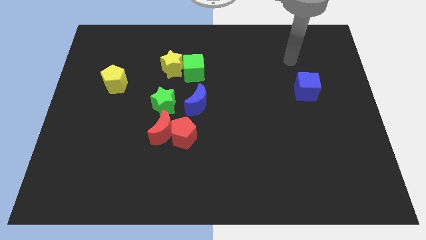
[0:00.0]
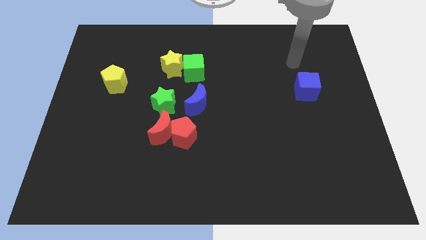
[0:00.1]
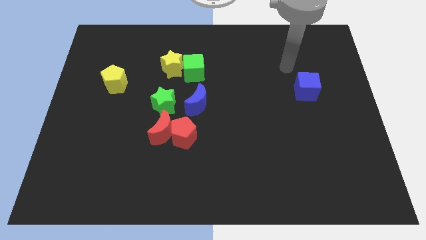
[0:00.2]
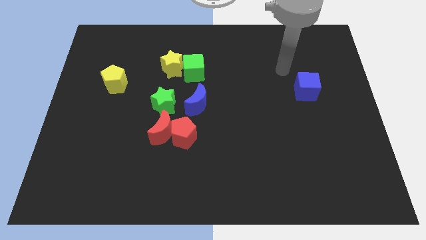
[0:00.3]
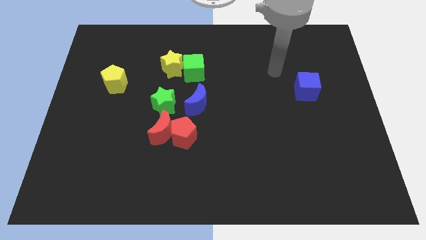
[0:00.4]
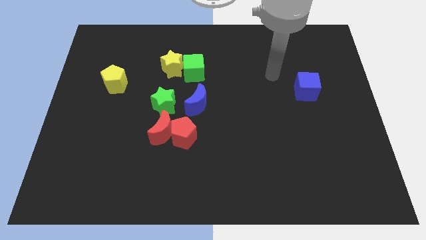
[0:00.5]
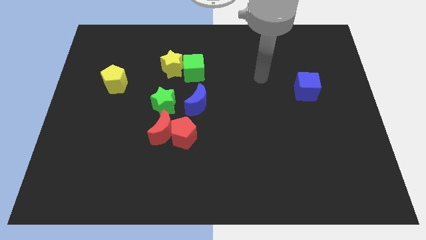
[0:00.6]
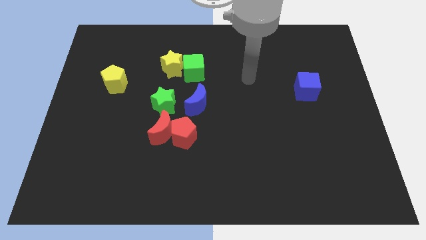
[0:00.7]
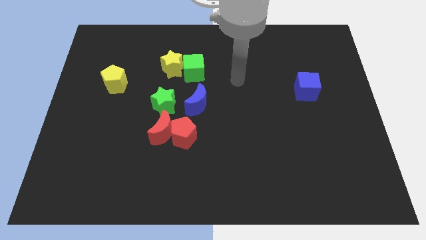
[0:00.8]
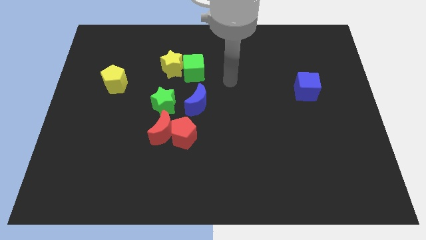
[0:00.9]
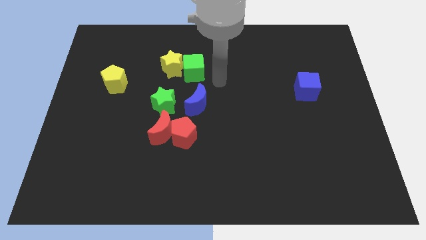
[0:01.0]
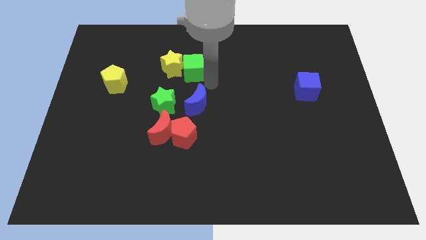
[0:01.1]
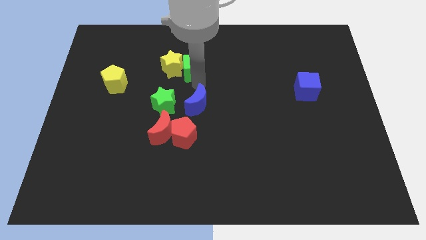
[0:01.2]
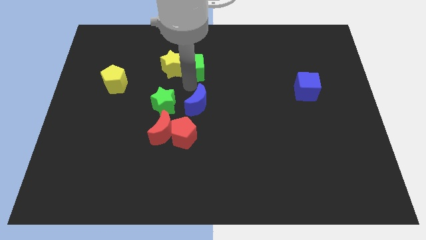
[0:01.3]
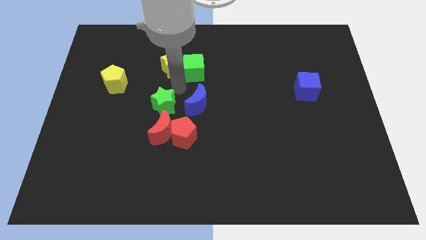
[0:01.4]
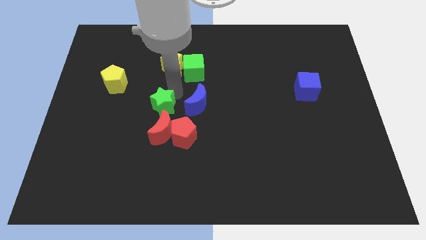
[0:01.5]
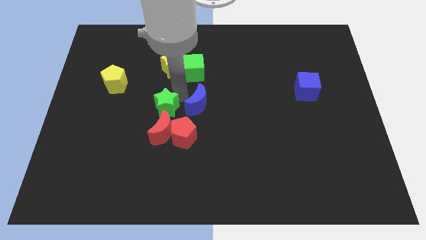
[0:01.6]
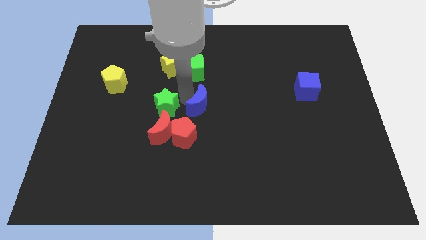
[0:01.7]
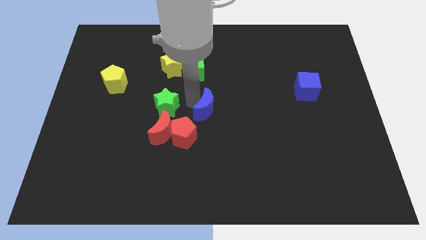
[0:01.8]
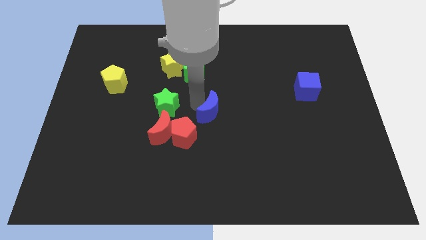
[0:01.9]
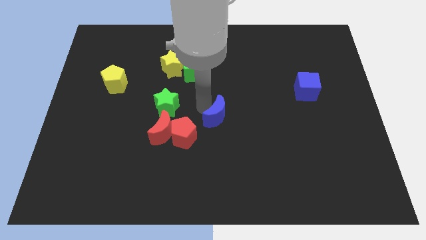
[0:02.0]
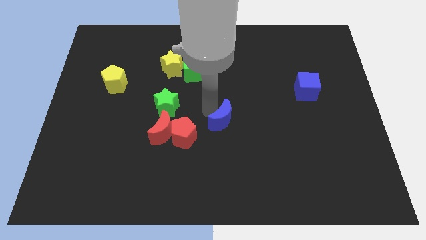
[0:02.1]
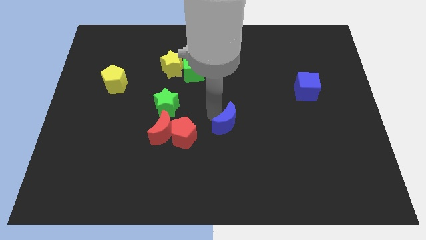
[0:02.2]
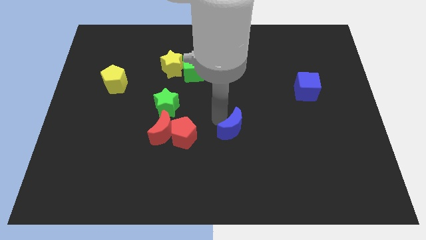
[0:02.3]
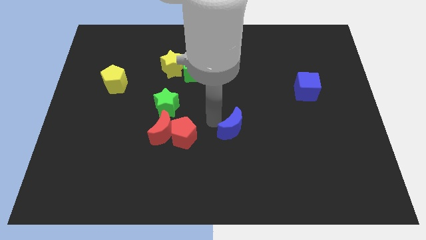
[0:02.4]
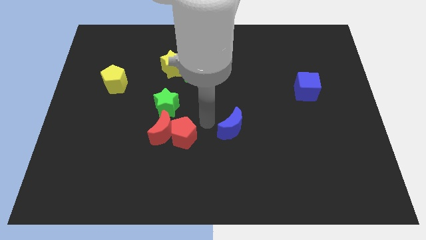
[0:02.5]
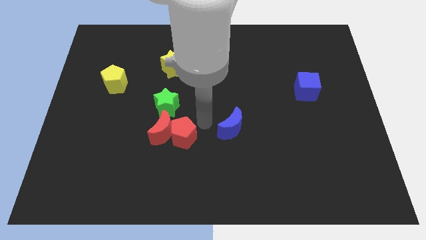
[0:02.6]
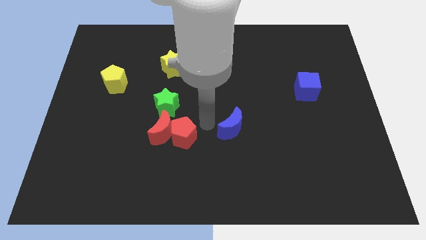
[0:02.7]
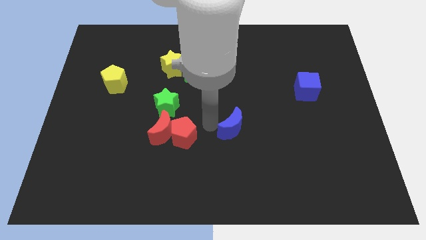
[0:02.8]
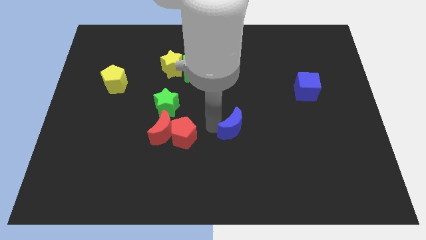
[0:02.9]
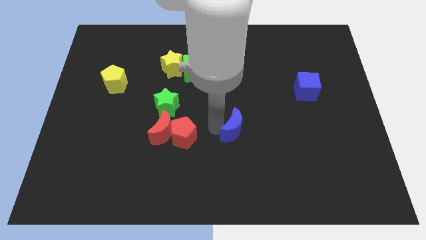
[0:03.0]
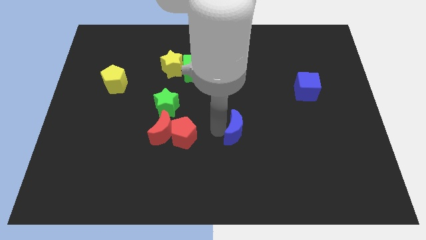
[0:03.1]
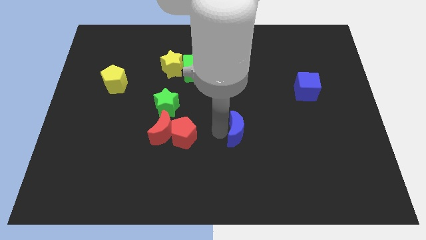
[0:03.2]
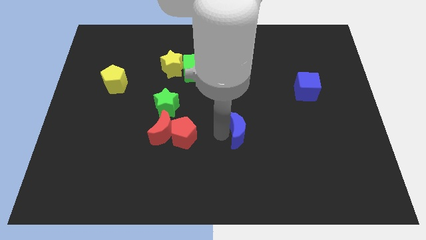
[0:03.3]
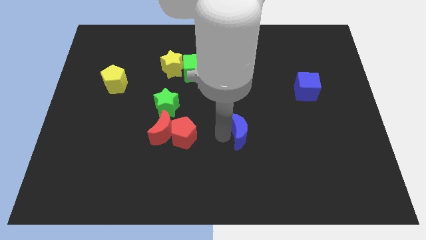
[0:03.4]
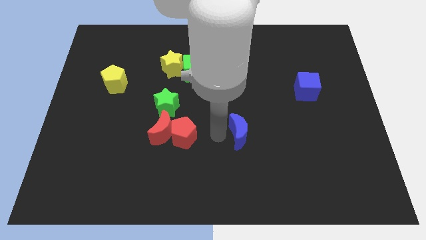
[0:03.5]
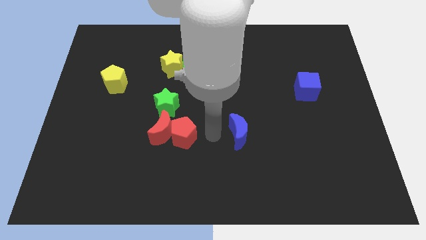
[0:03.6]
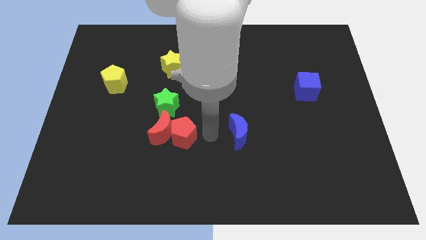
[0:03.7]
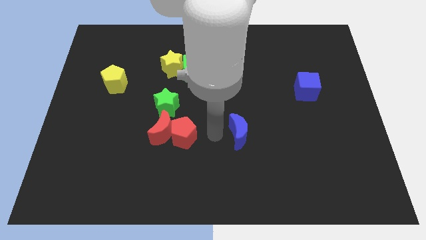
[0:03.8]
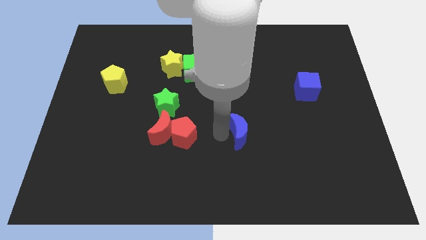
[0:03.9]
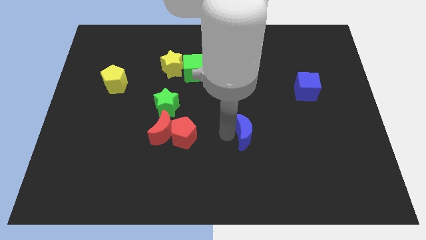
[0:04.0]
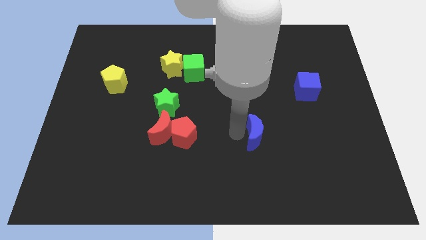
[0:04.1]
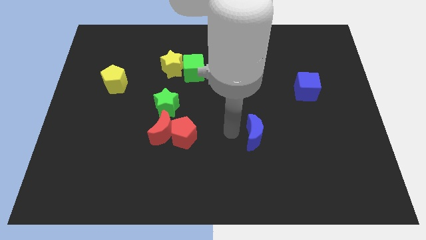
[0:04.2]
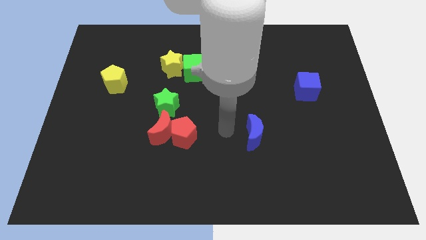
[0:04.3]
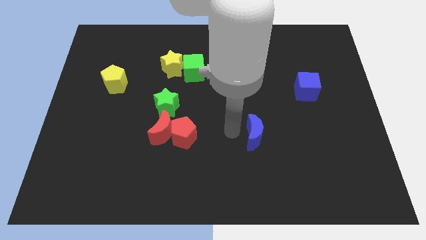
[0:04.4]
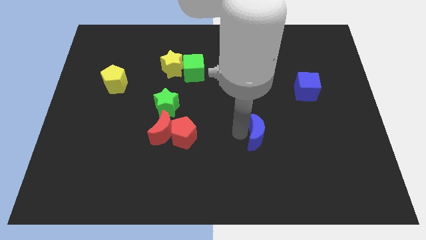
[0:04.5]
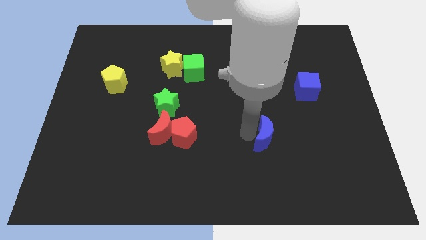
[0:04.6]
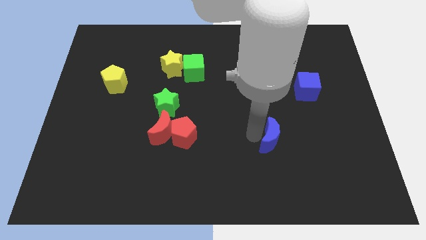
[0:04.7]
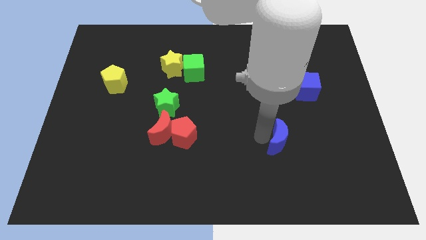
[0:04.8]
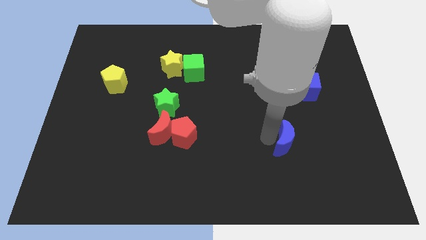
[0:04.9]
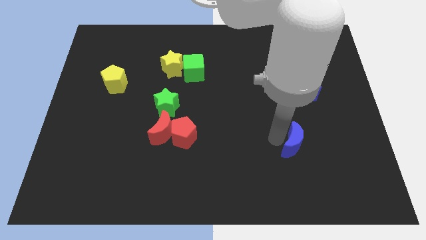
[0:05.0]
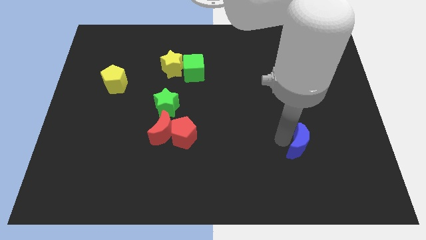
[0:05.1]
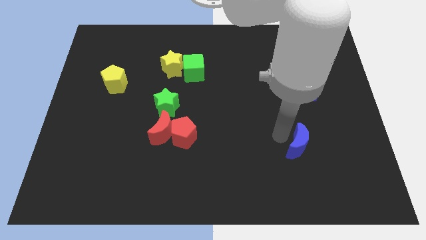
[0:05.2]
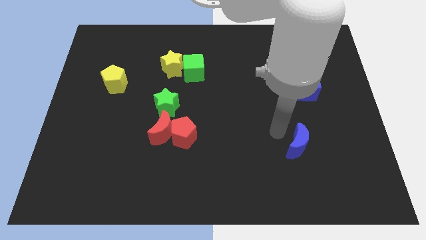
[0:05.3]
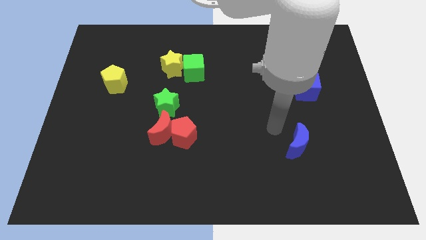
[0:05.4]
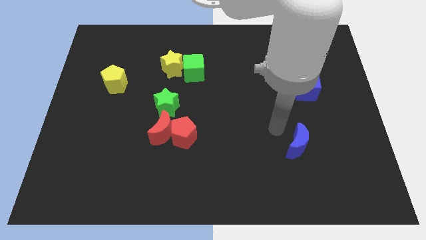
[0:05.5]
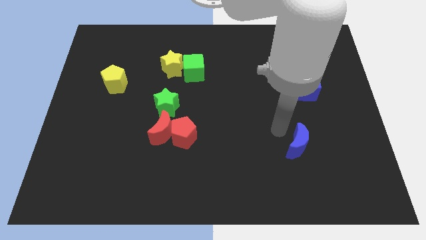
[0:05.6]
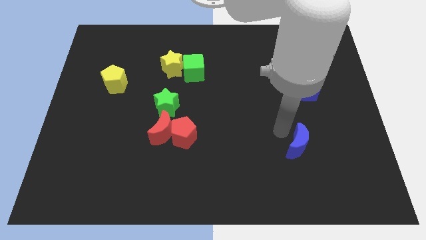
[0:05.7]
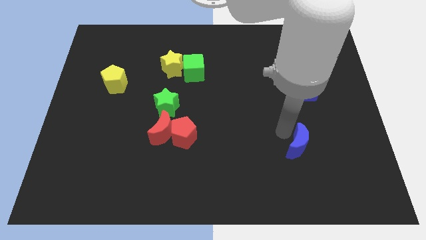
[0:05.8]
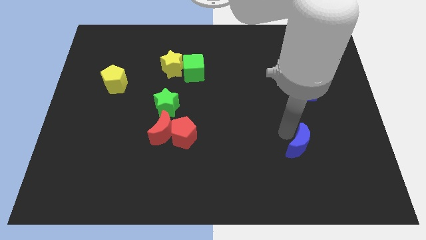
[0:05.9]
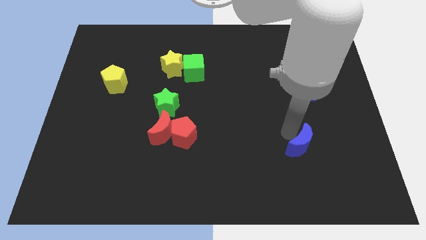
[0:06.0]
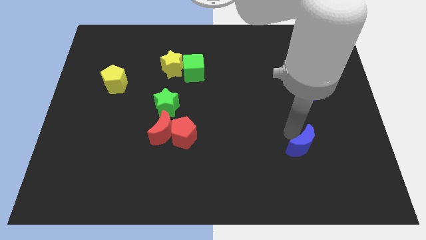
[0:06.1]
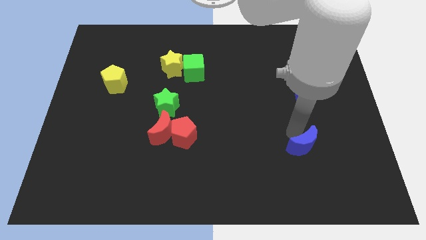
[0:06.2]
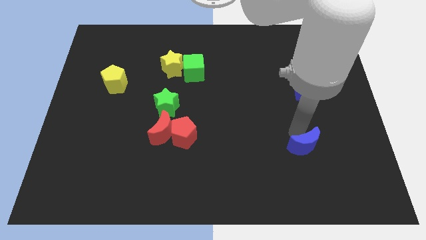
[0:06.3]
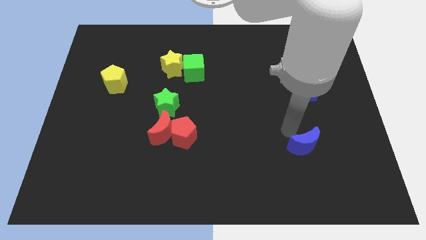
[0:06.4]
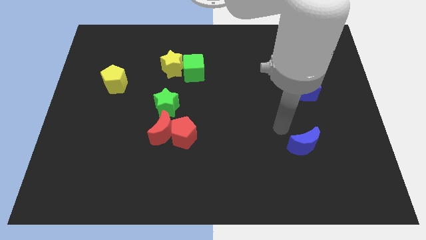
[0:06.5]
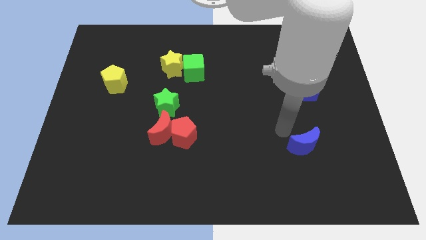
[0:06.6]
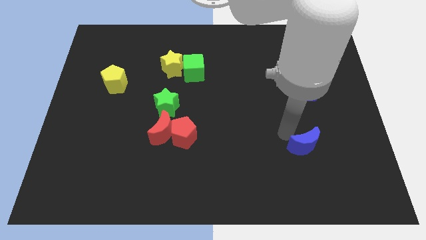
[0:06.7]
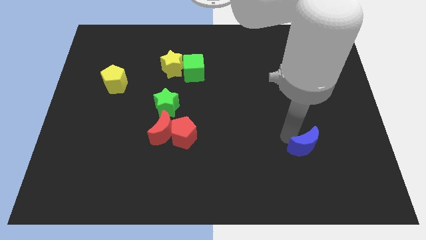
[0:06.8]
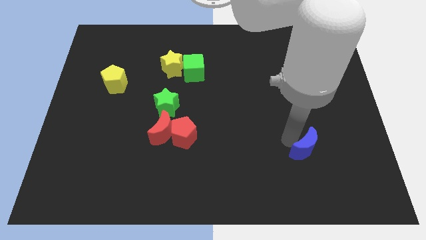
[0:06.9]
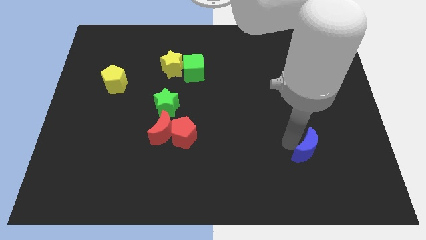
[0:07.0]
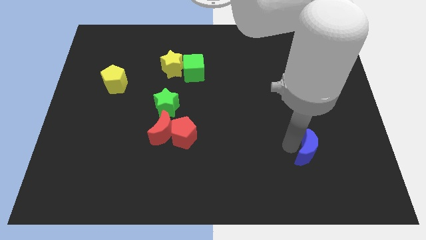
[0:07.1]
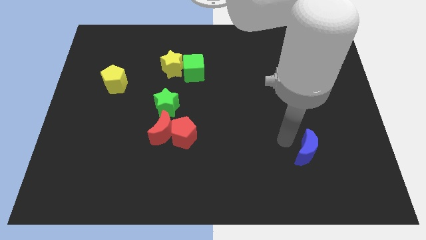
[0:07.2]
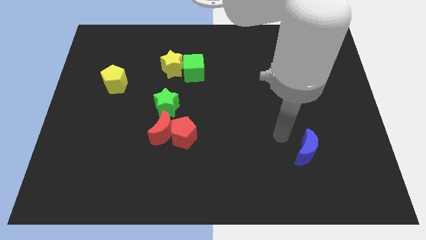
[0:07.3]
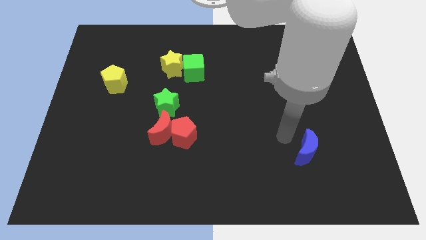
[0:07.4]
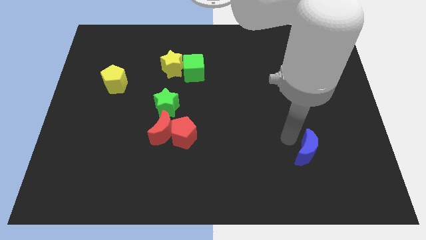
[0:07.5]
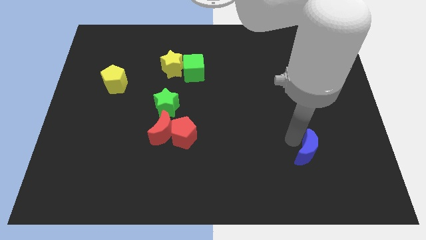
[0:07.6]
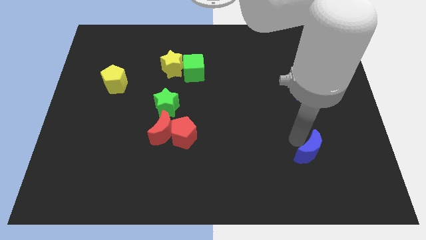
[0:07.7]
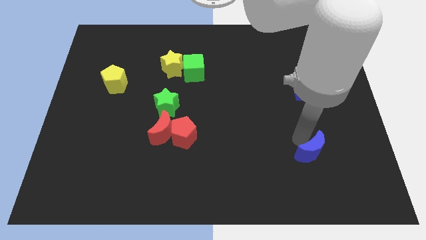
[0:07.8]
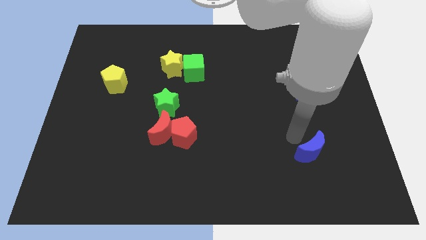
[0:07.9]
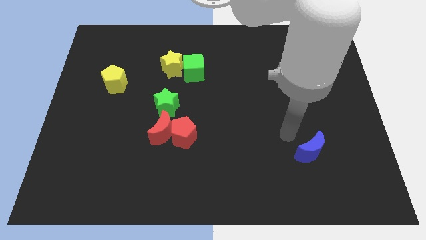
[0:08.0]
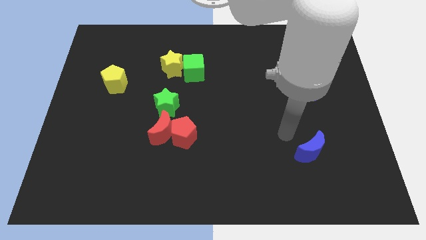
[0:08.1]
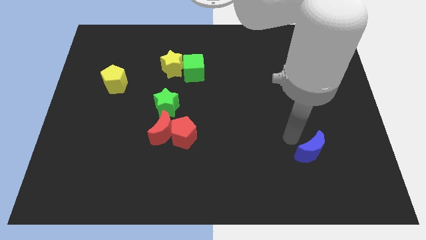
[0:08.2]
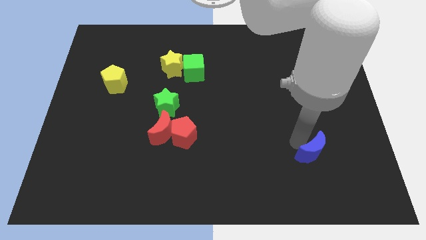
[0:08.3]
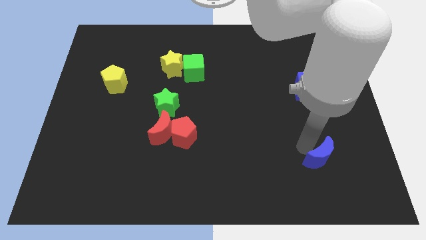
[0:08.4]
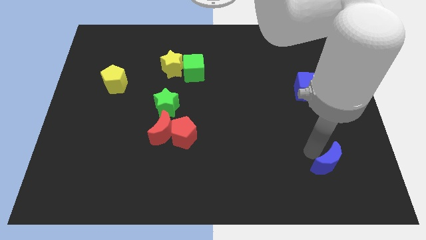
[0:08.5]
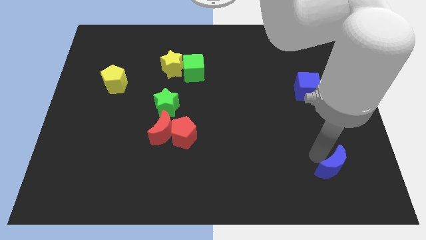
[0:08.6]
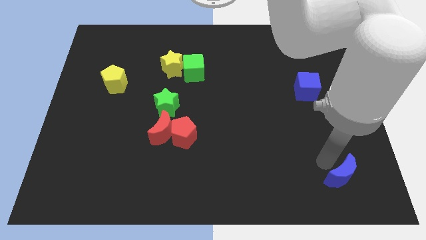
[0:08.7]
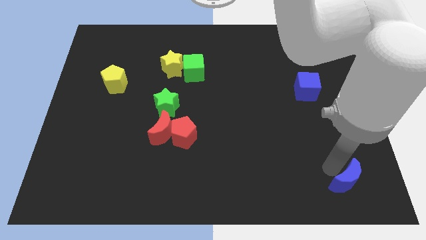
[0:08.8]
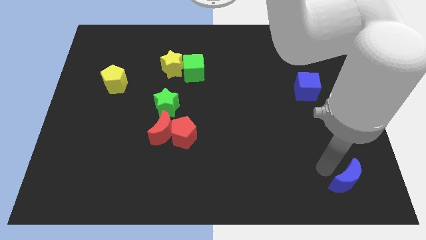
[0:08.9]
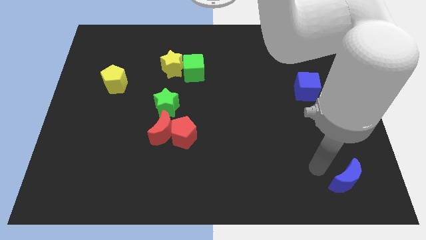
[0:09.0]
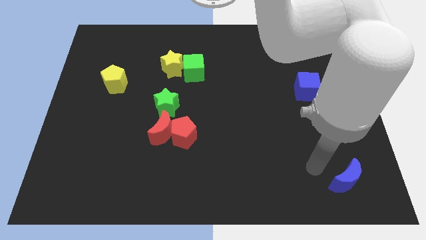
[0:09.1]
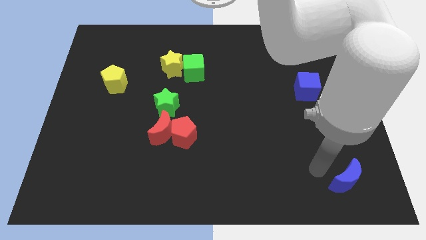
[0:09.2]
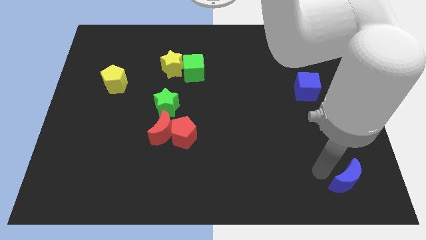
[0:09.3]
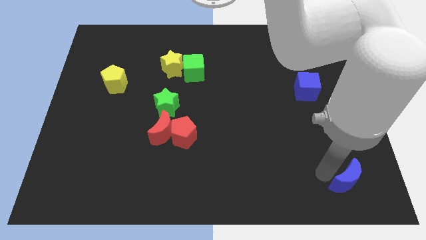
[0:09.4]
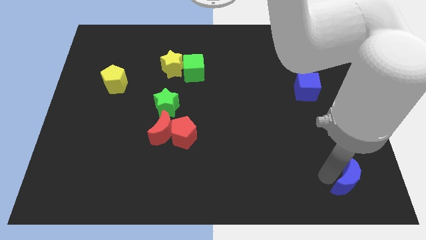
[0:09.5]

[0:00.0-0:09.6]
push the blue moon to the bottom right corner
